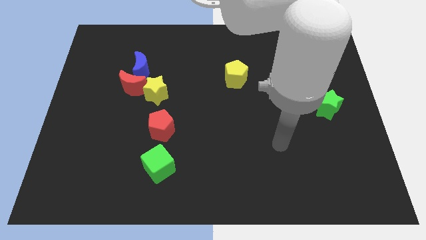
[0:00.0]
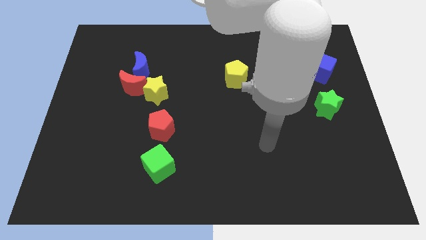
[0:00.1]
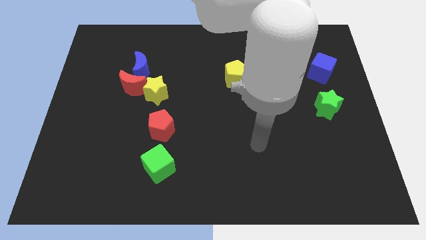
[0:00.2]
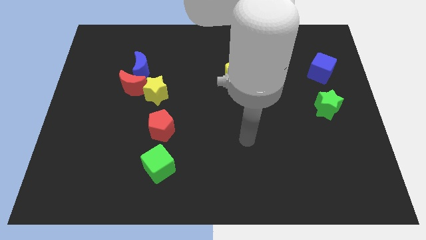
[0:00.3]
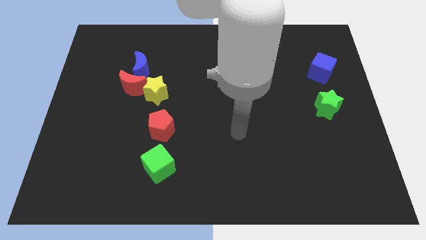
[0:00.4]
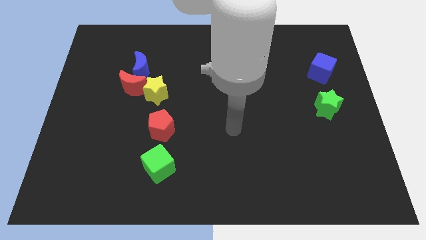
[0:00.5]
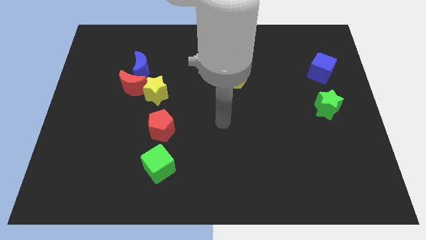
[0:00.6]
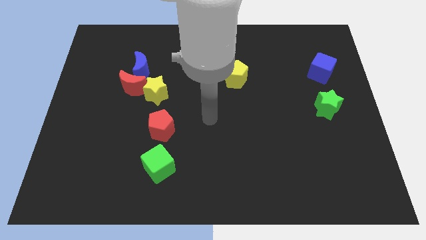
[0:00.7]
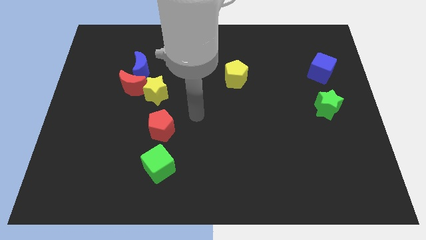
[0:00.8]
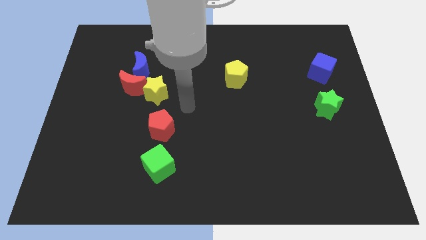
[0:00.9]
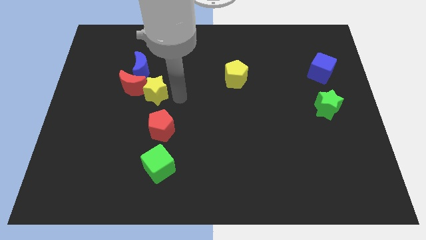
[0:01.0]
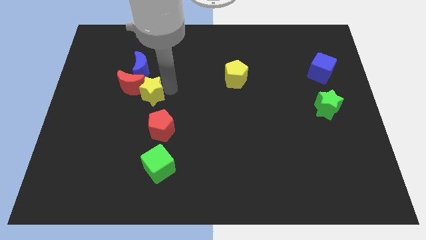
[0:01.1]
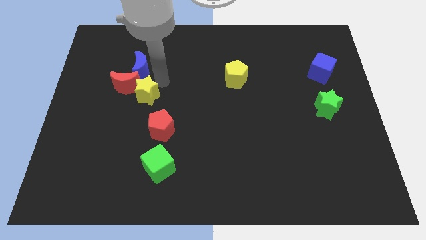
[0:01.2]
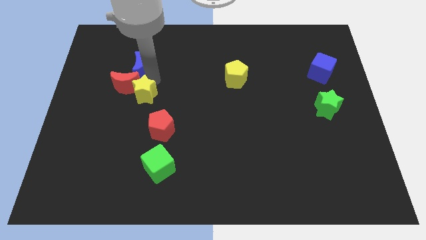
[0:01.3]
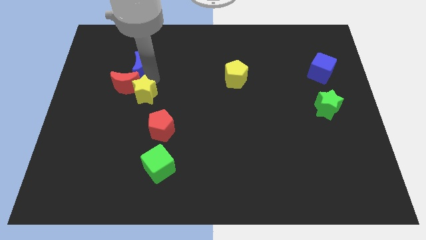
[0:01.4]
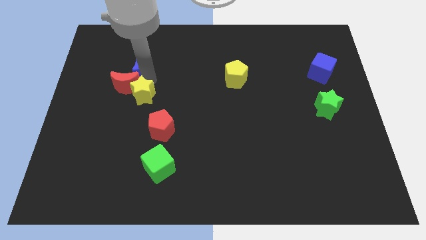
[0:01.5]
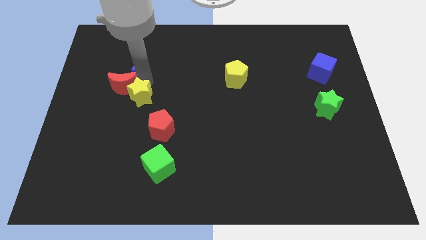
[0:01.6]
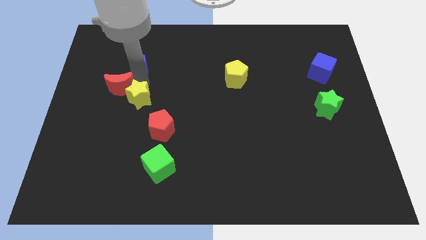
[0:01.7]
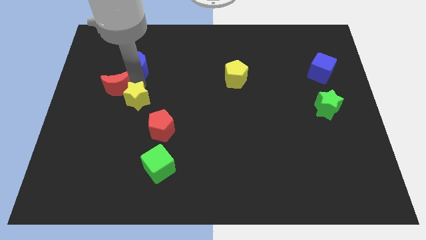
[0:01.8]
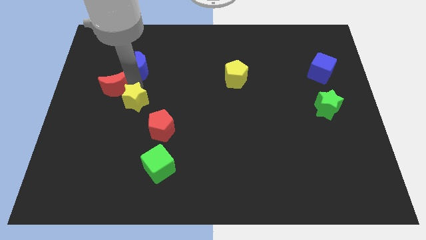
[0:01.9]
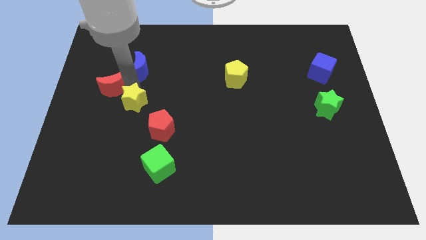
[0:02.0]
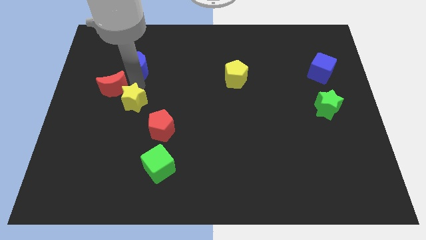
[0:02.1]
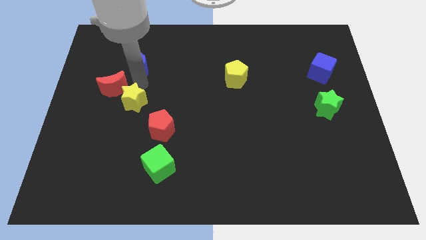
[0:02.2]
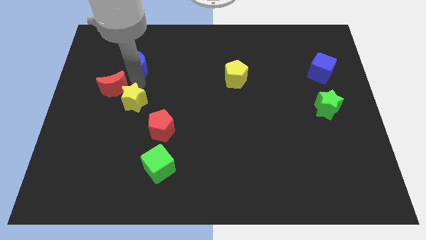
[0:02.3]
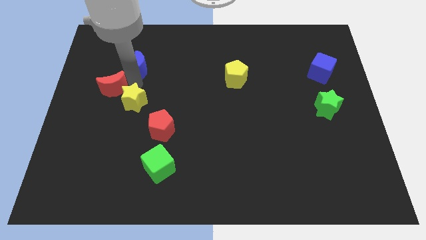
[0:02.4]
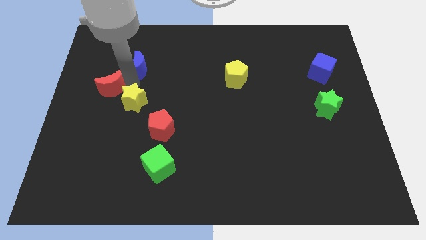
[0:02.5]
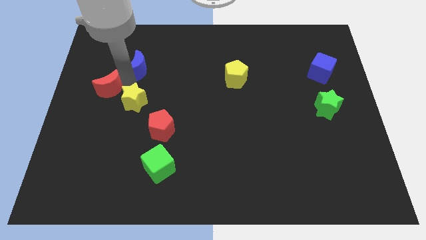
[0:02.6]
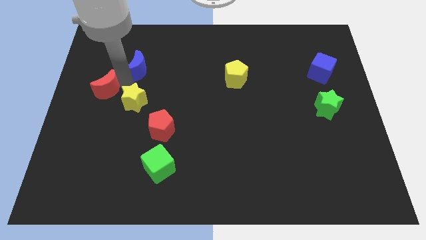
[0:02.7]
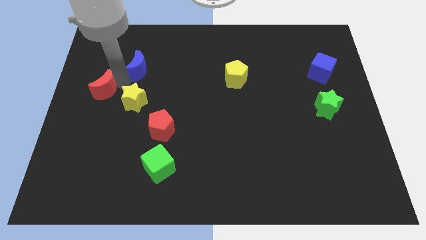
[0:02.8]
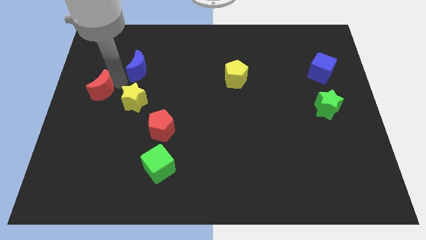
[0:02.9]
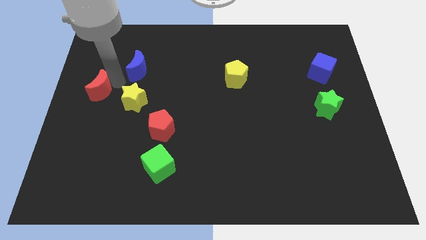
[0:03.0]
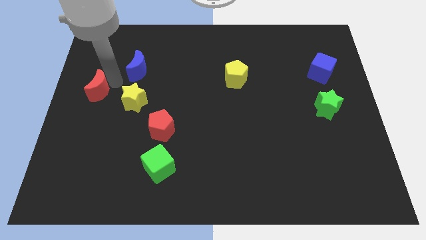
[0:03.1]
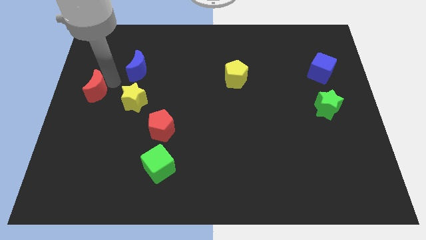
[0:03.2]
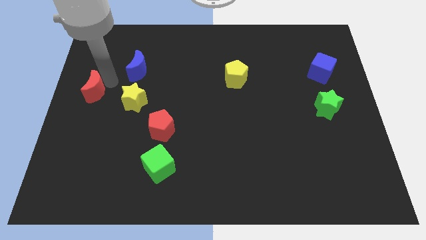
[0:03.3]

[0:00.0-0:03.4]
move the red moon away from the blue moon and yellow star

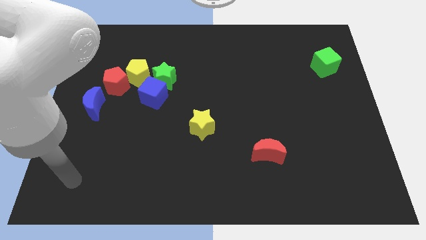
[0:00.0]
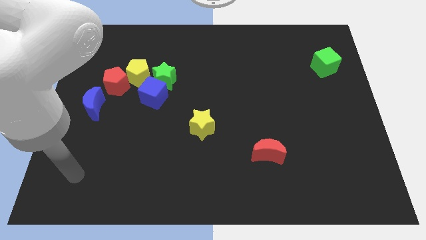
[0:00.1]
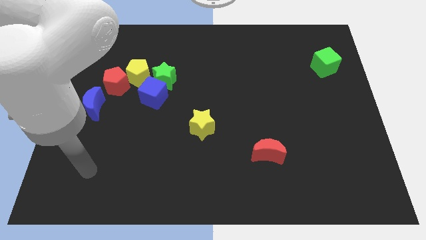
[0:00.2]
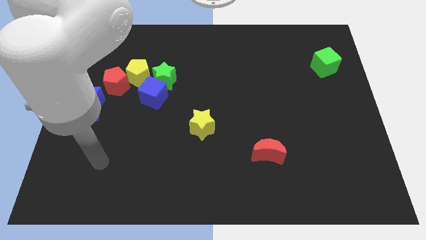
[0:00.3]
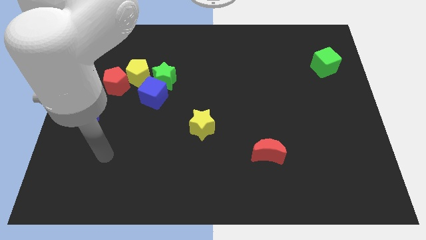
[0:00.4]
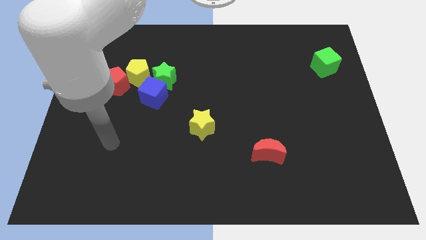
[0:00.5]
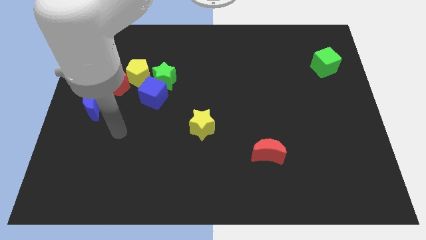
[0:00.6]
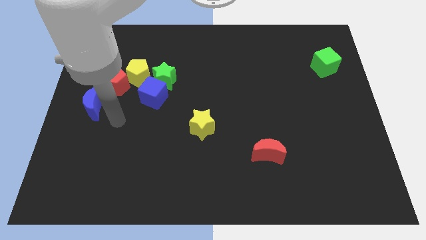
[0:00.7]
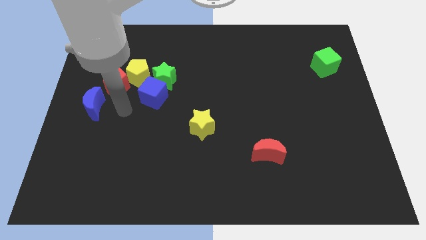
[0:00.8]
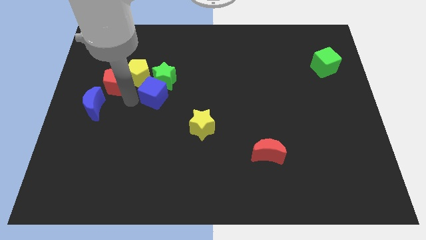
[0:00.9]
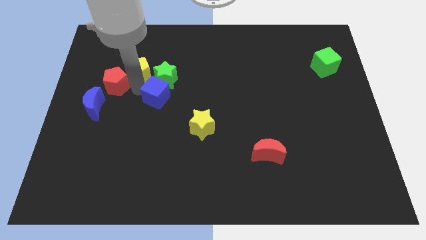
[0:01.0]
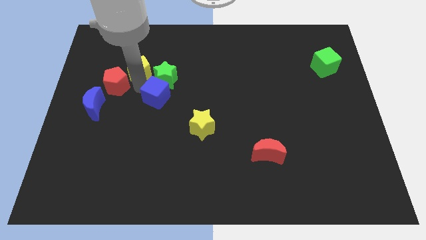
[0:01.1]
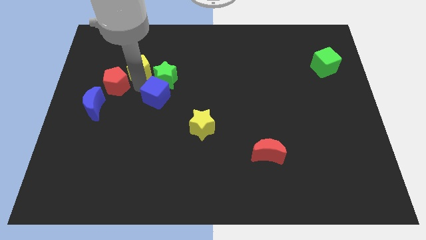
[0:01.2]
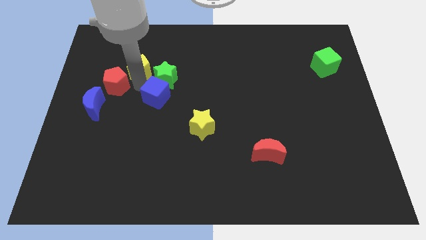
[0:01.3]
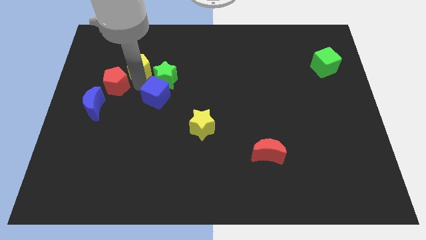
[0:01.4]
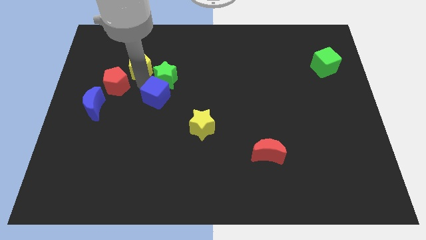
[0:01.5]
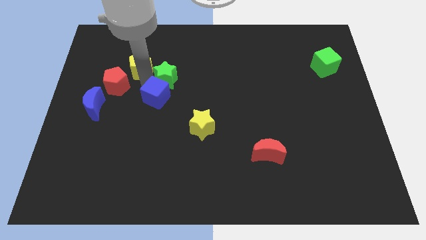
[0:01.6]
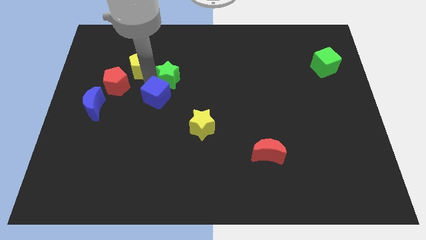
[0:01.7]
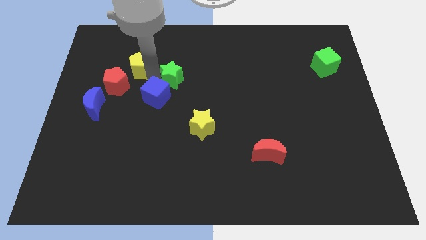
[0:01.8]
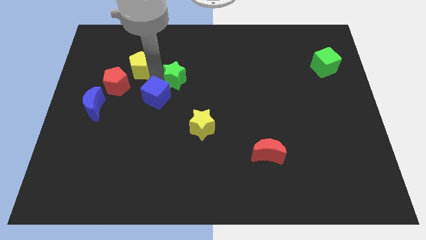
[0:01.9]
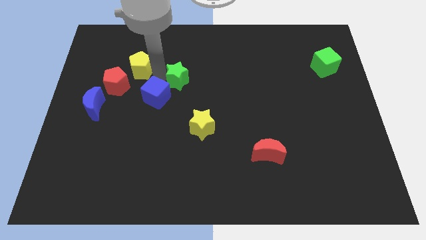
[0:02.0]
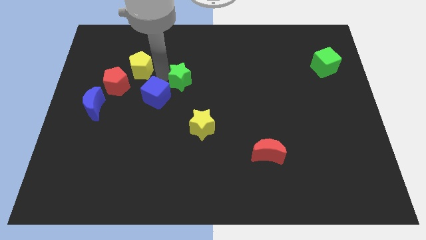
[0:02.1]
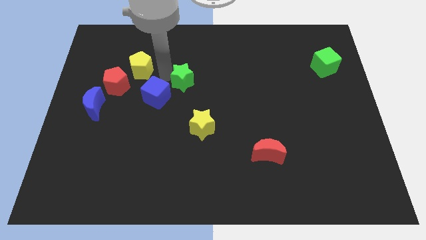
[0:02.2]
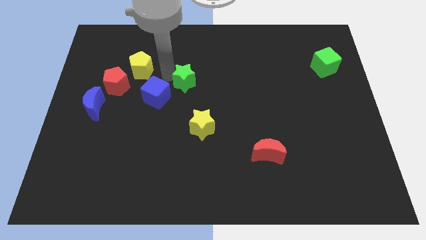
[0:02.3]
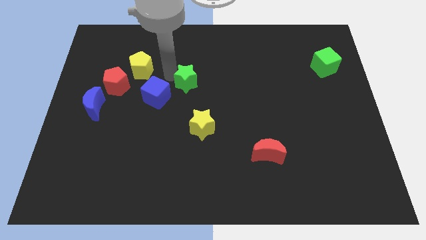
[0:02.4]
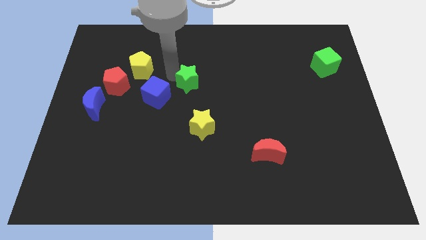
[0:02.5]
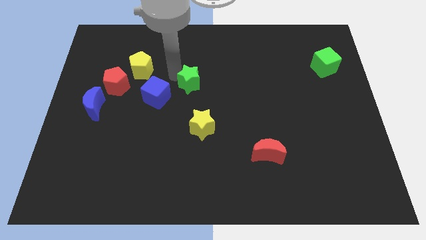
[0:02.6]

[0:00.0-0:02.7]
pull the green star apart from the blue cube and yellow pentagon

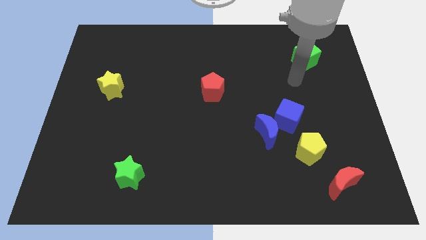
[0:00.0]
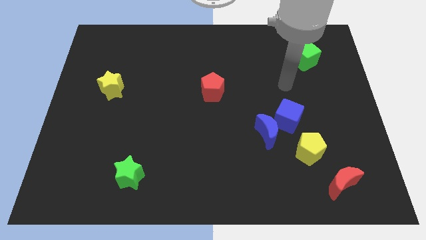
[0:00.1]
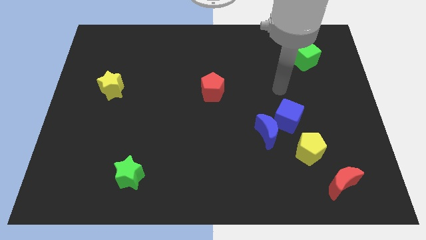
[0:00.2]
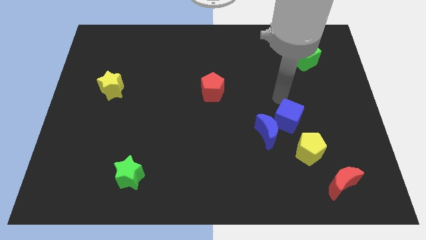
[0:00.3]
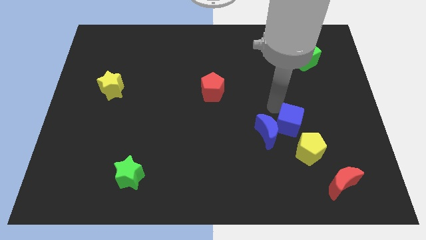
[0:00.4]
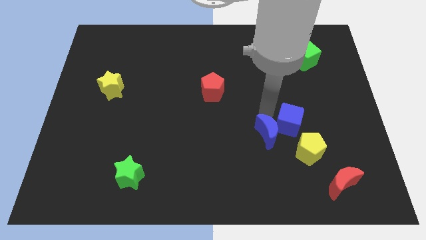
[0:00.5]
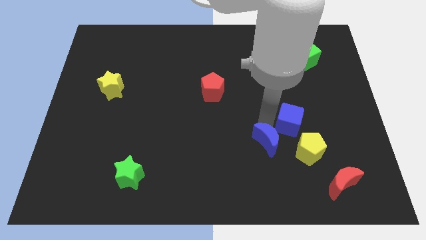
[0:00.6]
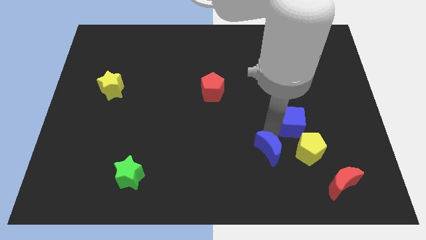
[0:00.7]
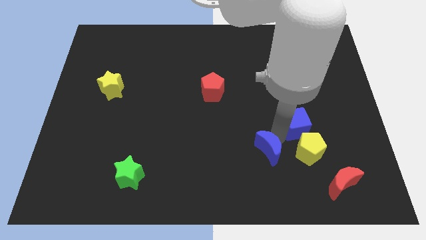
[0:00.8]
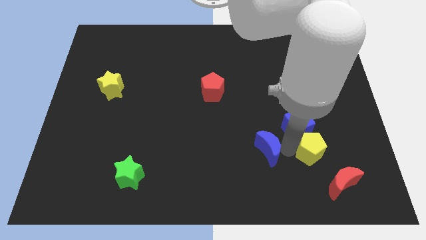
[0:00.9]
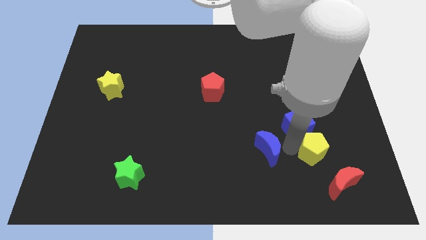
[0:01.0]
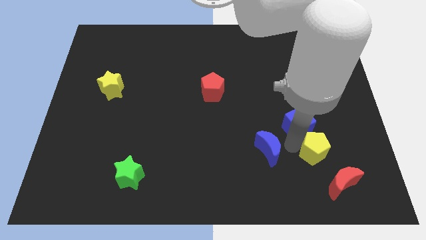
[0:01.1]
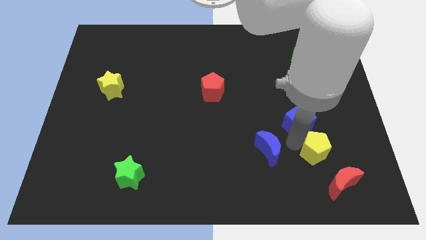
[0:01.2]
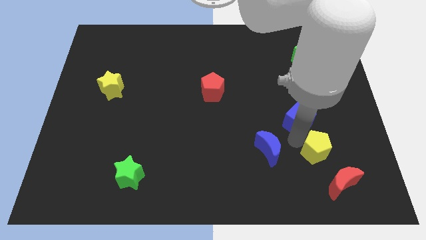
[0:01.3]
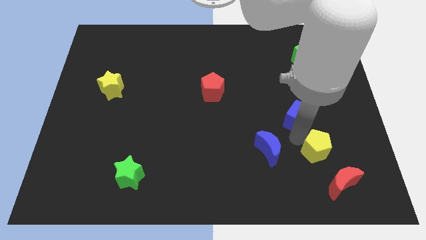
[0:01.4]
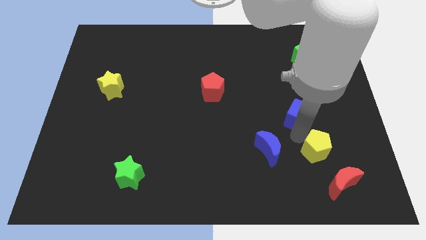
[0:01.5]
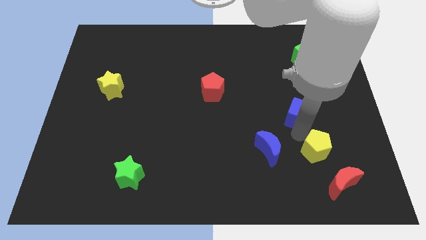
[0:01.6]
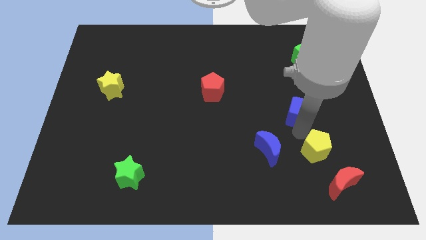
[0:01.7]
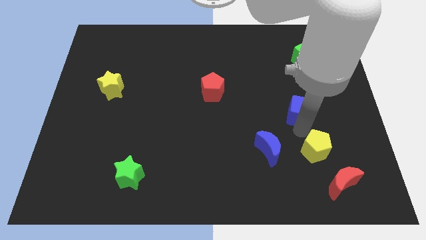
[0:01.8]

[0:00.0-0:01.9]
move the blue cube away from the blue moon and yellow pentagon

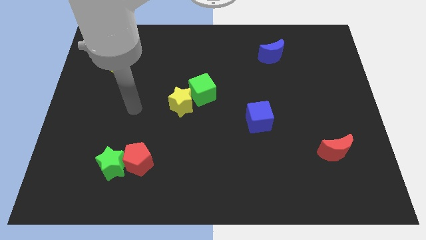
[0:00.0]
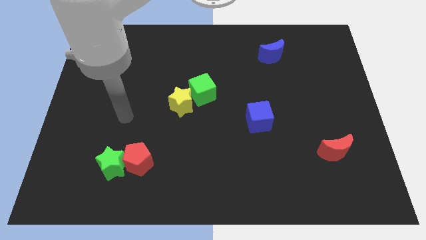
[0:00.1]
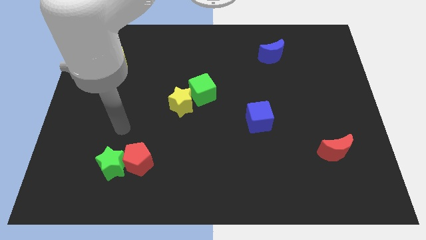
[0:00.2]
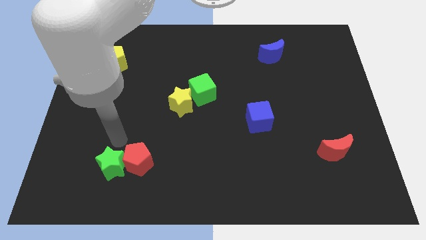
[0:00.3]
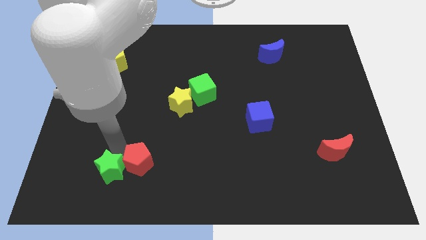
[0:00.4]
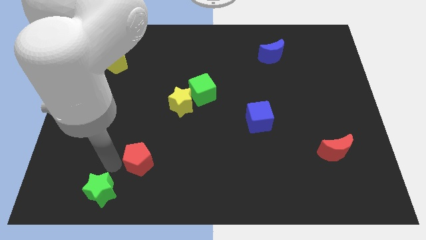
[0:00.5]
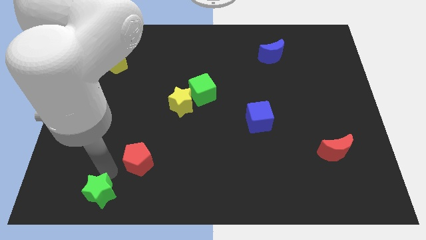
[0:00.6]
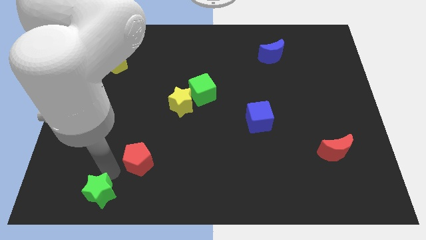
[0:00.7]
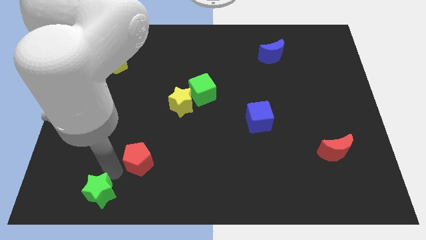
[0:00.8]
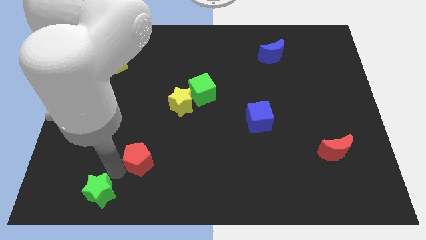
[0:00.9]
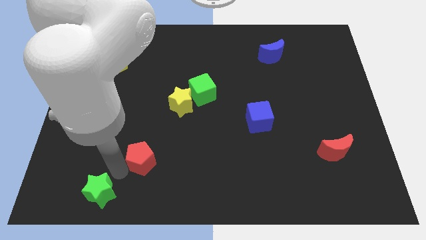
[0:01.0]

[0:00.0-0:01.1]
move the red pentagon away from the green star

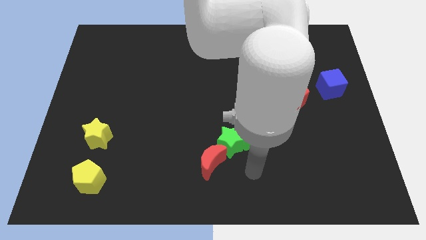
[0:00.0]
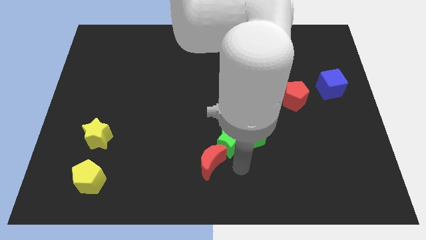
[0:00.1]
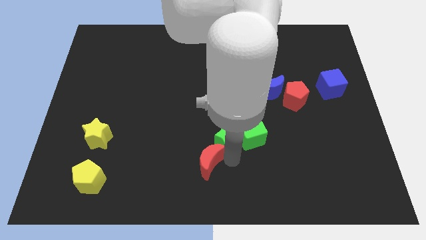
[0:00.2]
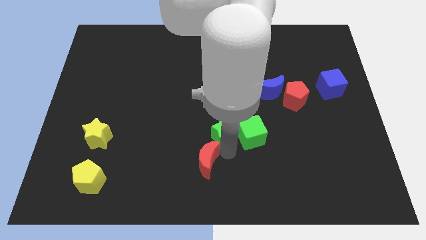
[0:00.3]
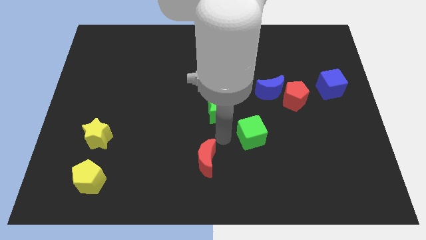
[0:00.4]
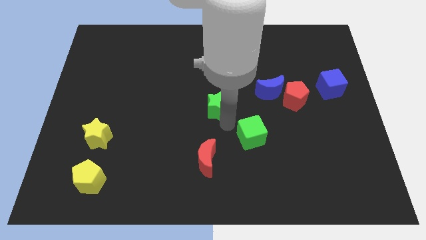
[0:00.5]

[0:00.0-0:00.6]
move the green cube away from the green star
